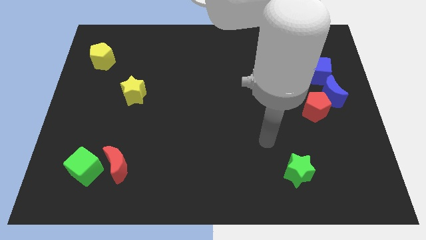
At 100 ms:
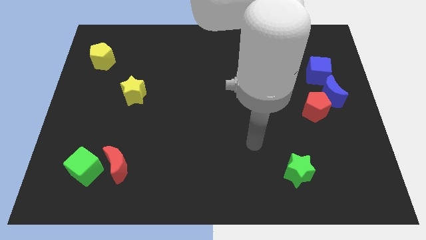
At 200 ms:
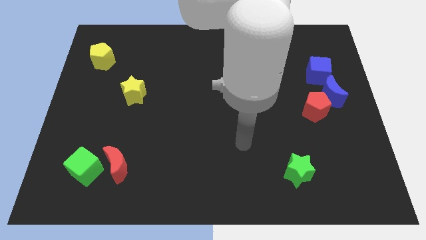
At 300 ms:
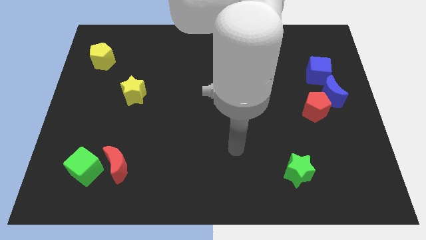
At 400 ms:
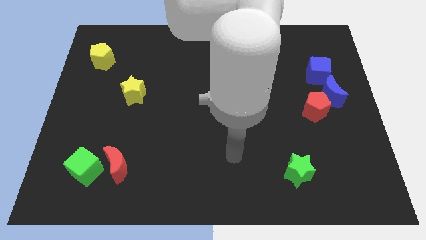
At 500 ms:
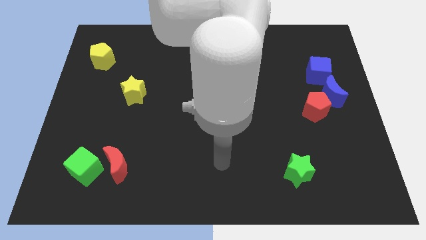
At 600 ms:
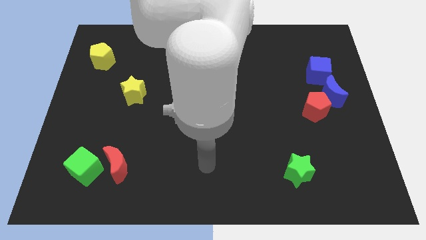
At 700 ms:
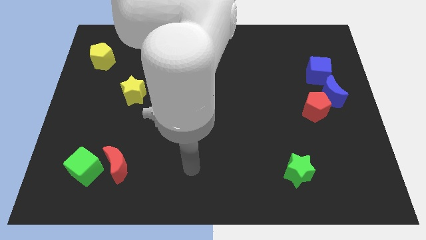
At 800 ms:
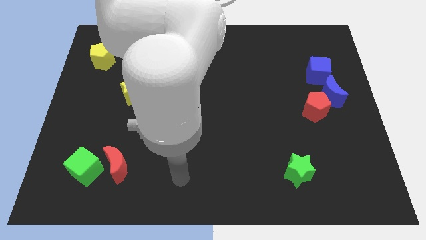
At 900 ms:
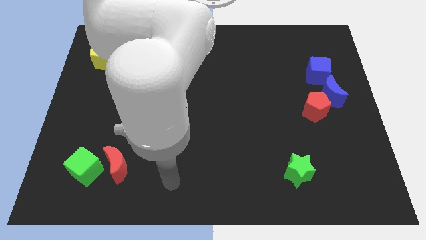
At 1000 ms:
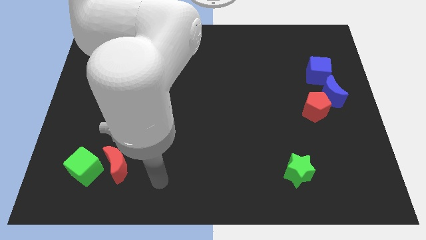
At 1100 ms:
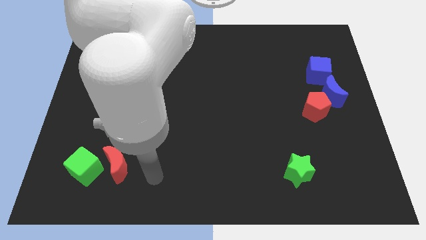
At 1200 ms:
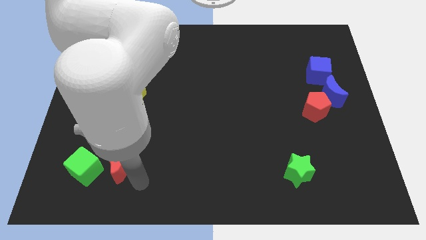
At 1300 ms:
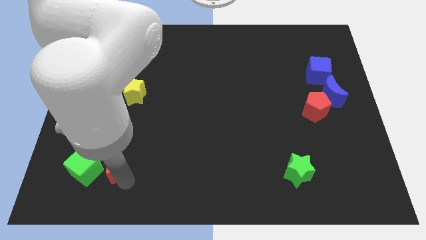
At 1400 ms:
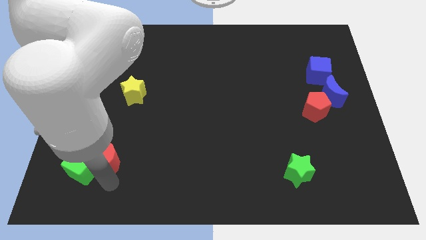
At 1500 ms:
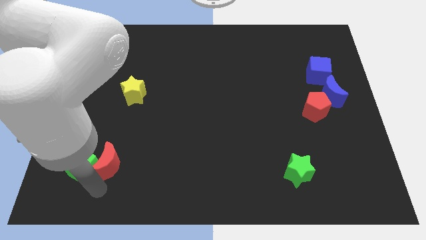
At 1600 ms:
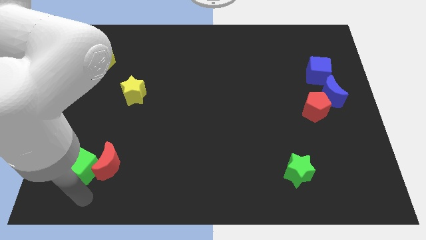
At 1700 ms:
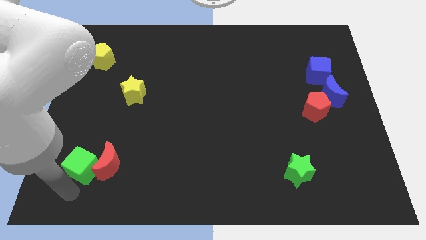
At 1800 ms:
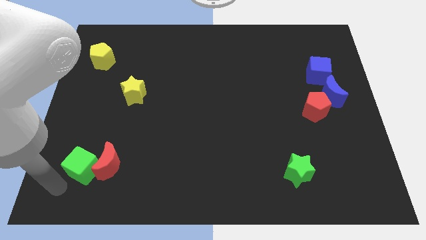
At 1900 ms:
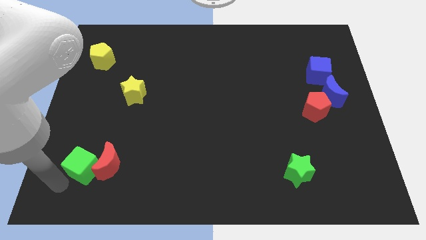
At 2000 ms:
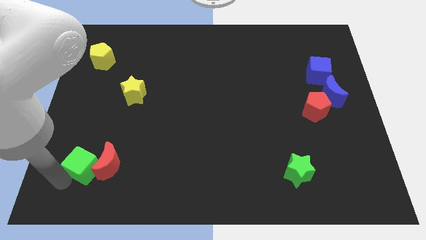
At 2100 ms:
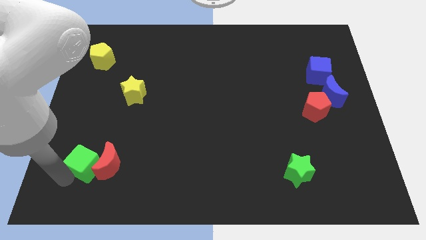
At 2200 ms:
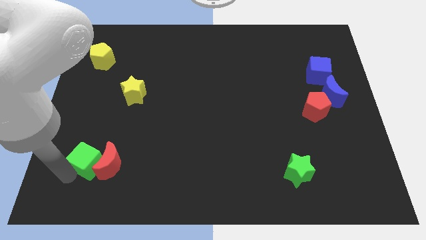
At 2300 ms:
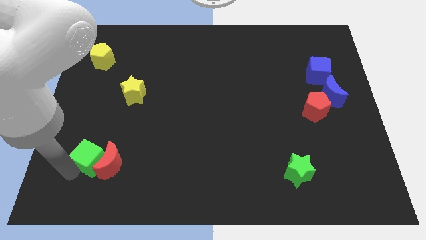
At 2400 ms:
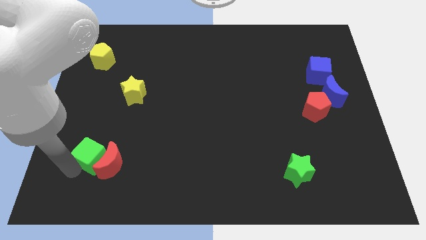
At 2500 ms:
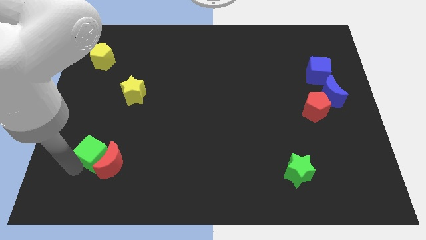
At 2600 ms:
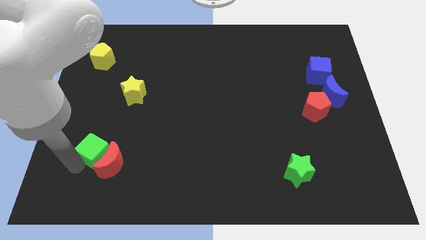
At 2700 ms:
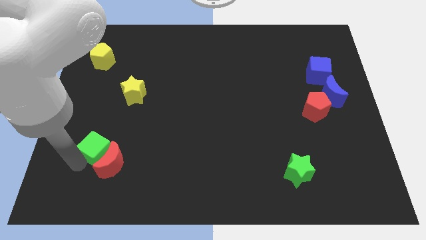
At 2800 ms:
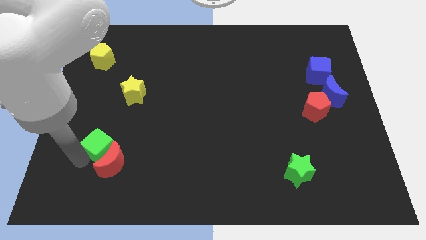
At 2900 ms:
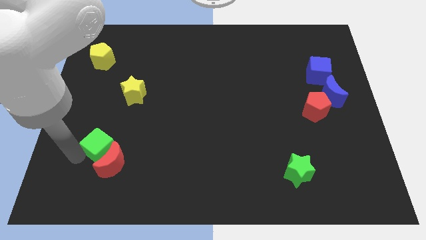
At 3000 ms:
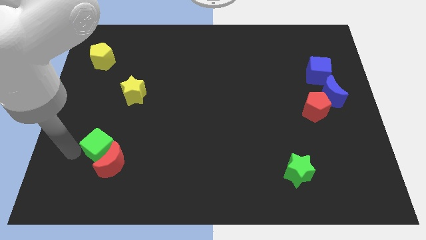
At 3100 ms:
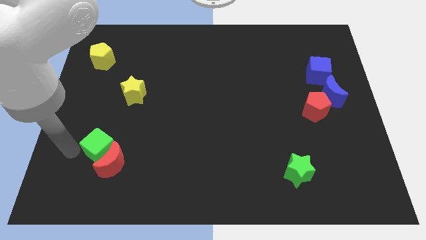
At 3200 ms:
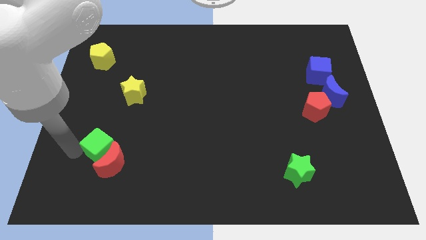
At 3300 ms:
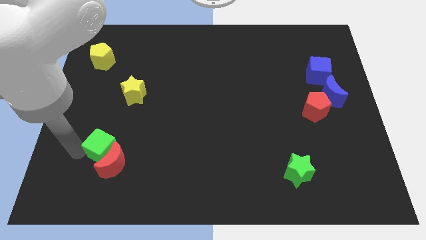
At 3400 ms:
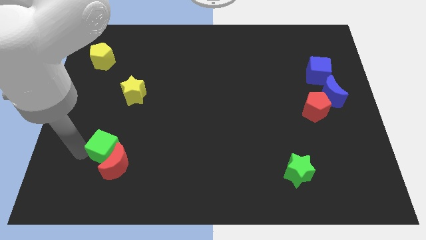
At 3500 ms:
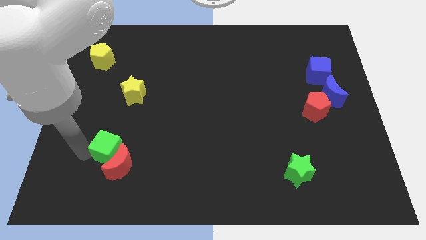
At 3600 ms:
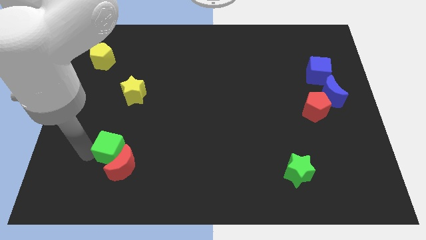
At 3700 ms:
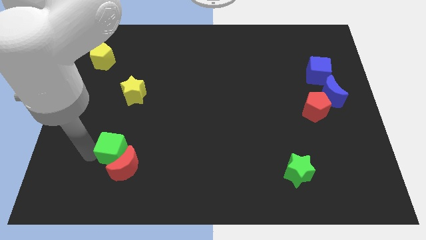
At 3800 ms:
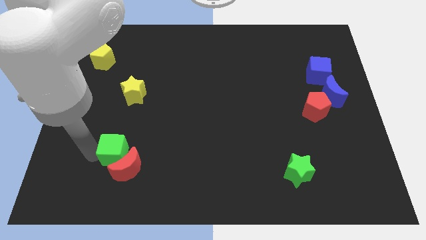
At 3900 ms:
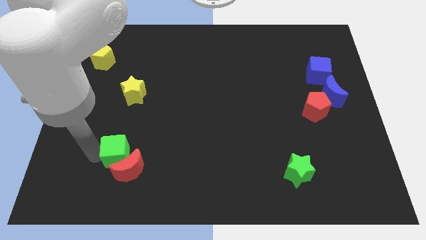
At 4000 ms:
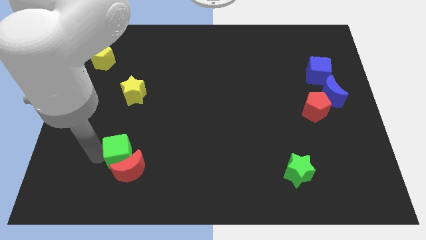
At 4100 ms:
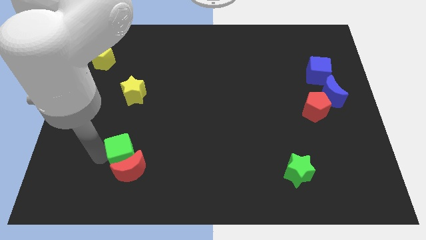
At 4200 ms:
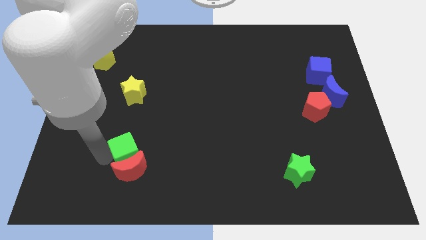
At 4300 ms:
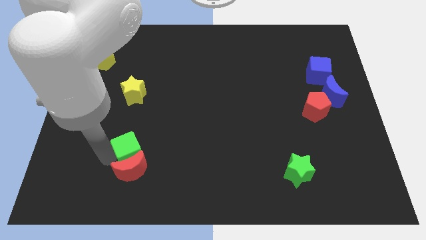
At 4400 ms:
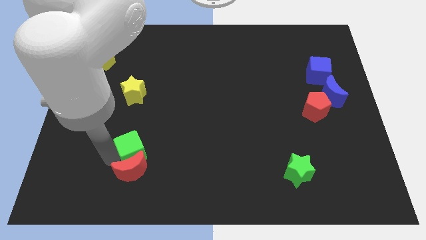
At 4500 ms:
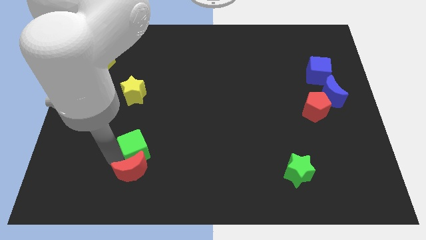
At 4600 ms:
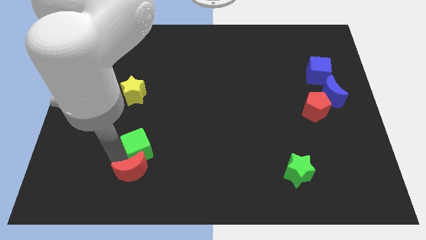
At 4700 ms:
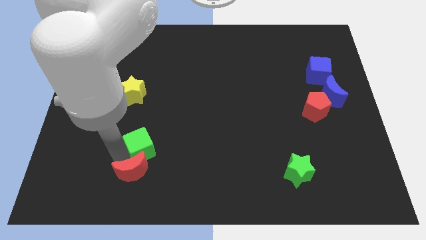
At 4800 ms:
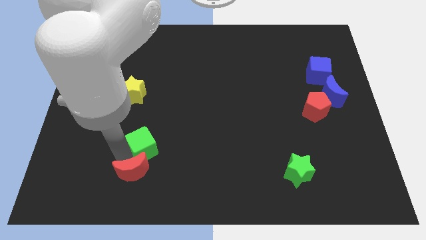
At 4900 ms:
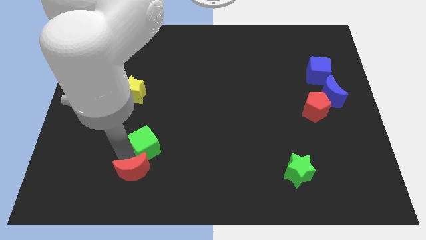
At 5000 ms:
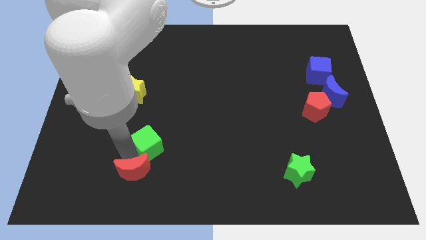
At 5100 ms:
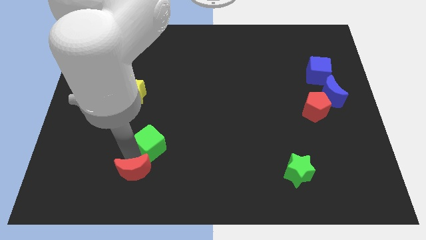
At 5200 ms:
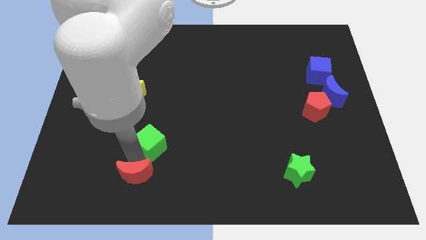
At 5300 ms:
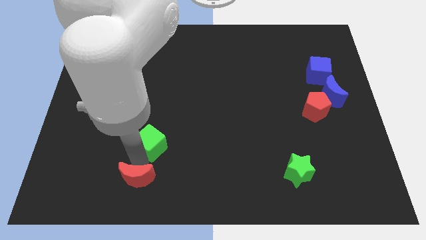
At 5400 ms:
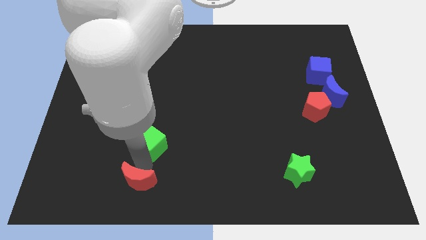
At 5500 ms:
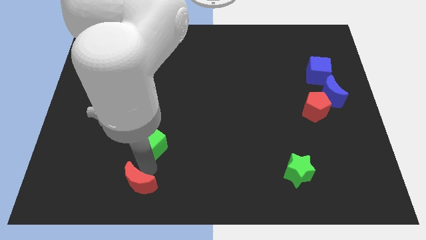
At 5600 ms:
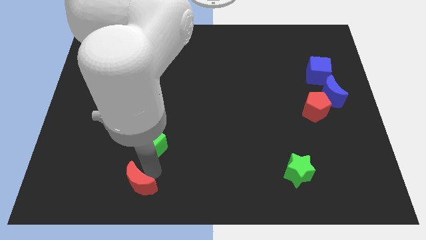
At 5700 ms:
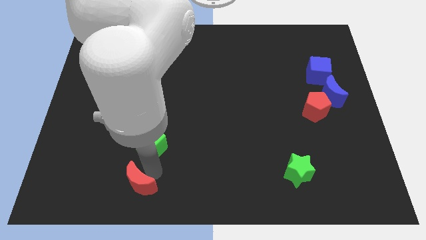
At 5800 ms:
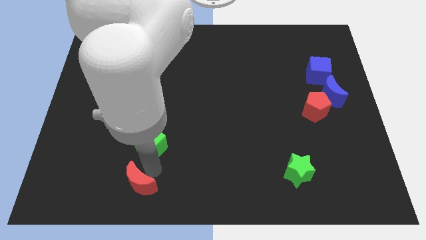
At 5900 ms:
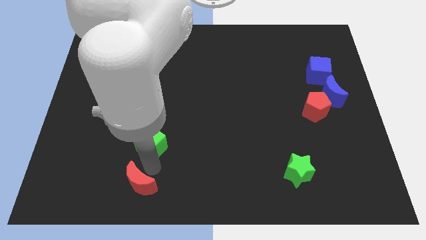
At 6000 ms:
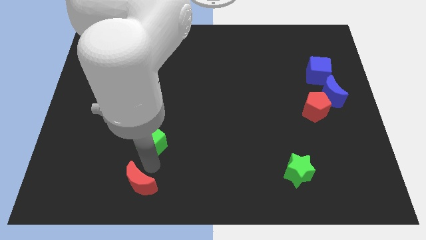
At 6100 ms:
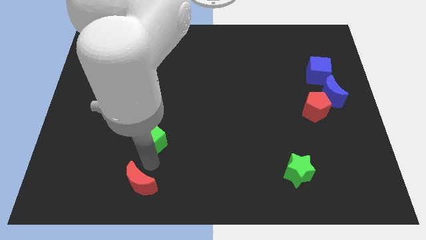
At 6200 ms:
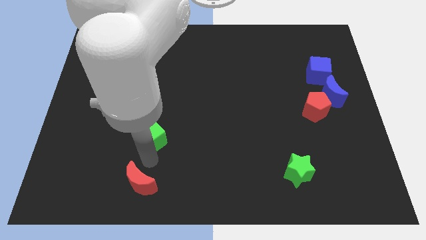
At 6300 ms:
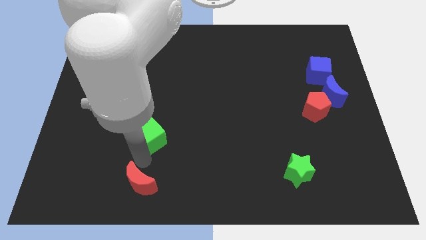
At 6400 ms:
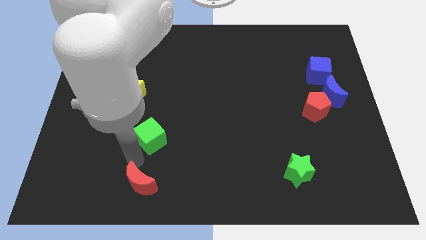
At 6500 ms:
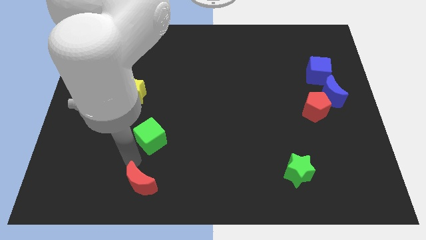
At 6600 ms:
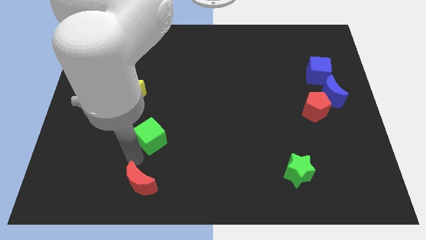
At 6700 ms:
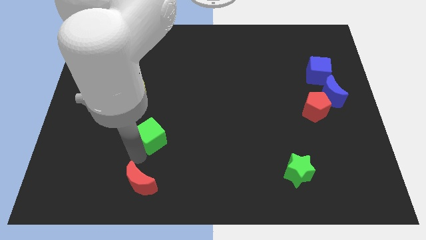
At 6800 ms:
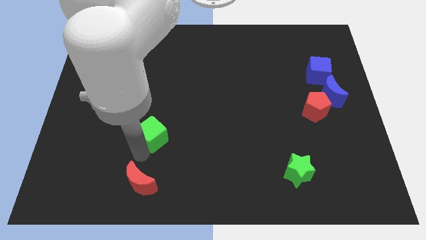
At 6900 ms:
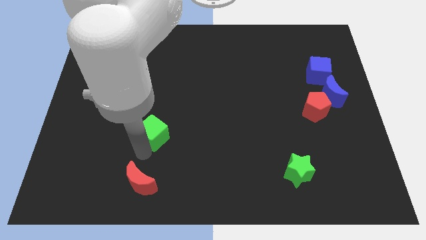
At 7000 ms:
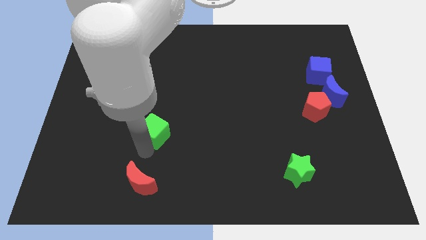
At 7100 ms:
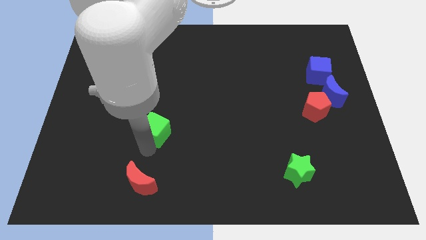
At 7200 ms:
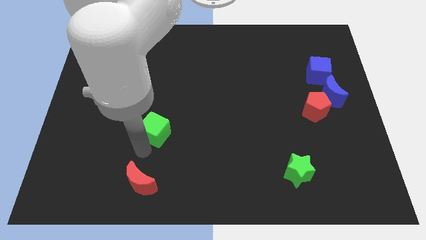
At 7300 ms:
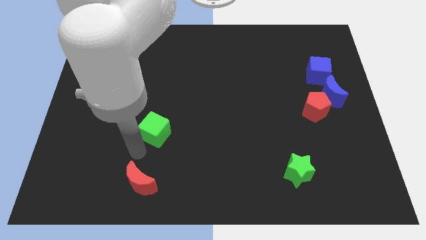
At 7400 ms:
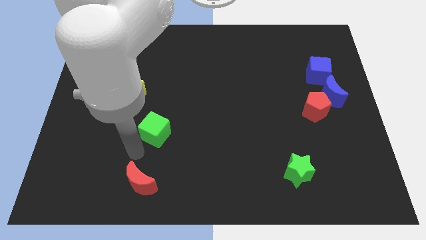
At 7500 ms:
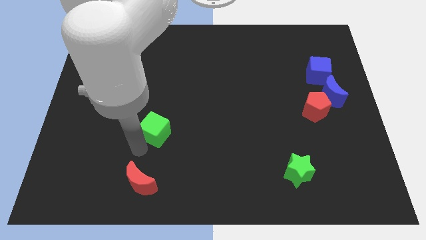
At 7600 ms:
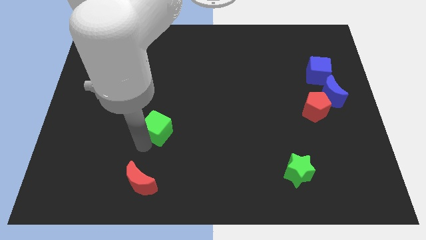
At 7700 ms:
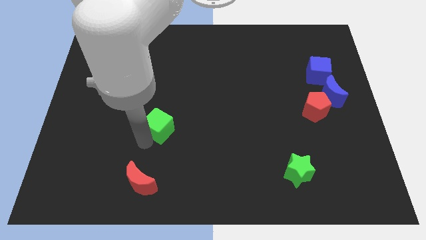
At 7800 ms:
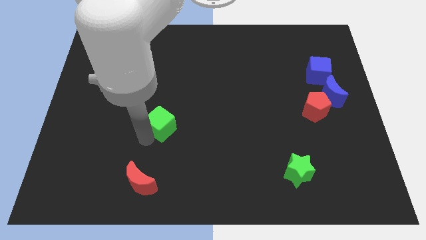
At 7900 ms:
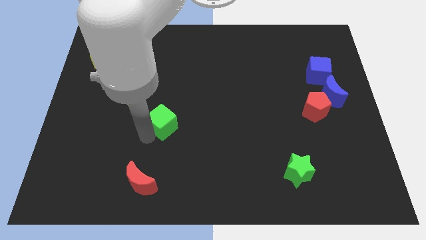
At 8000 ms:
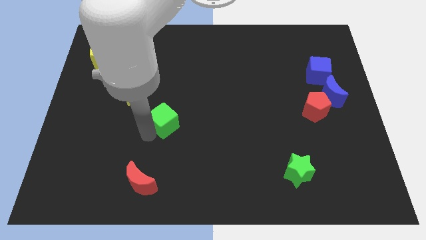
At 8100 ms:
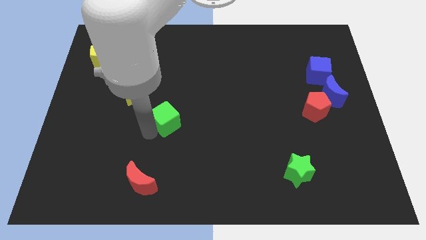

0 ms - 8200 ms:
slide the green cube to the center of the board
